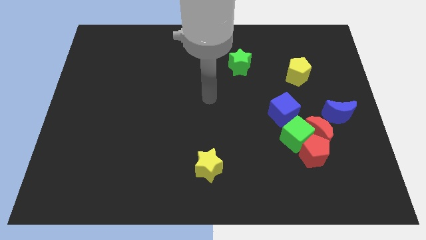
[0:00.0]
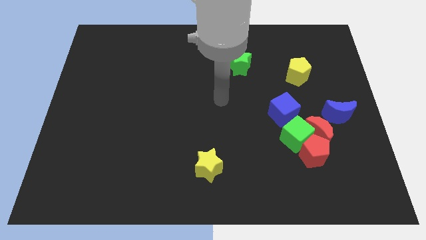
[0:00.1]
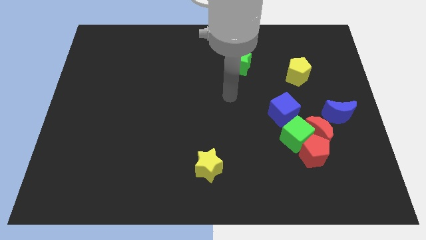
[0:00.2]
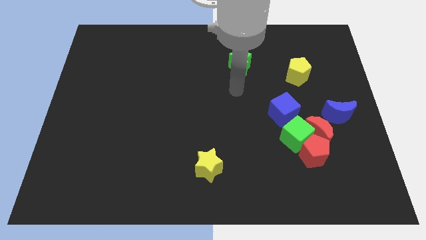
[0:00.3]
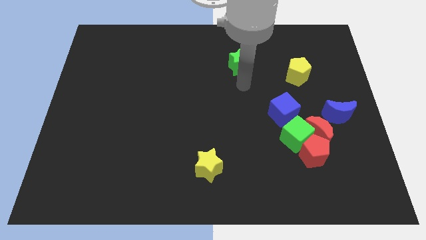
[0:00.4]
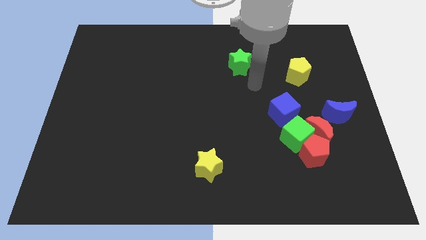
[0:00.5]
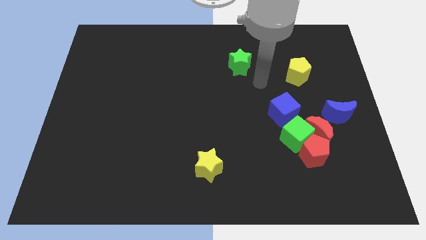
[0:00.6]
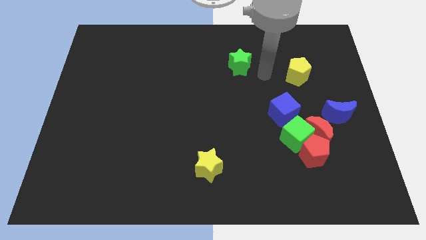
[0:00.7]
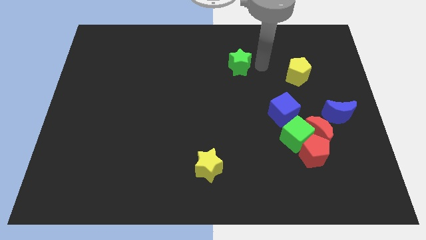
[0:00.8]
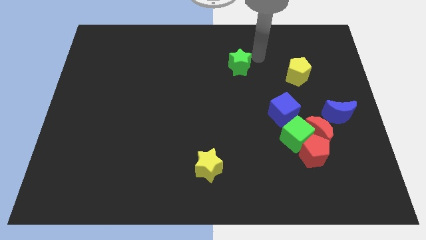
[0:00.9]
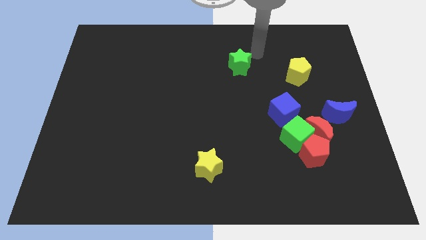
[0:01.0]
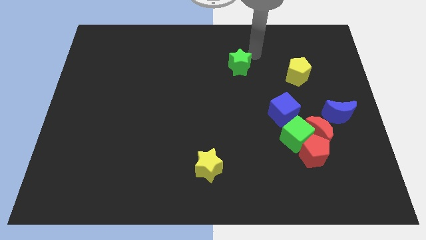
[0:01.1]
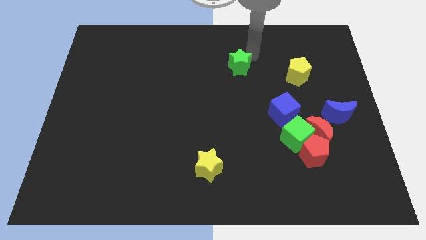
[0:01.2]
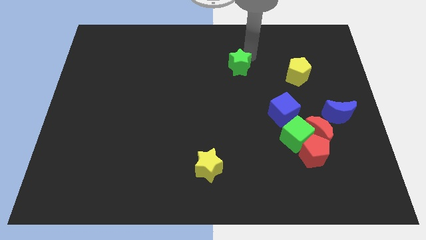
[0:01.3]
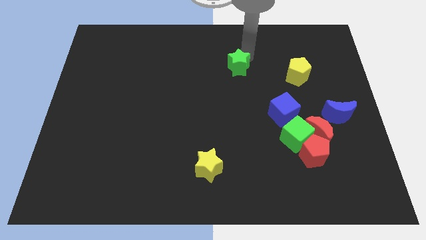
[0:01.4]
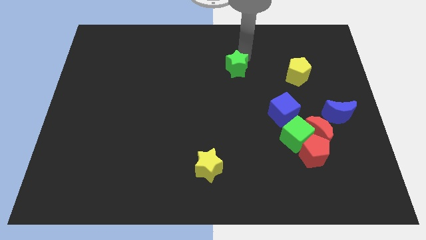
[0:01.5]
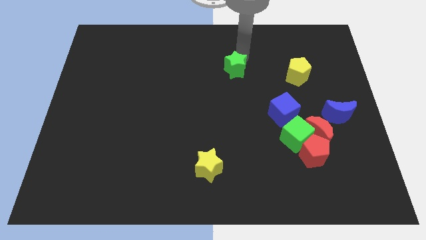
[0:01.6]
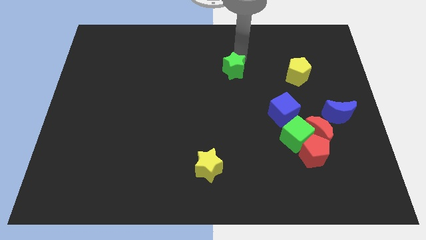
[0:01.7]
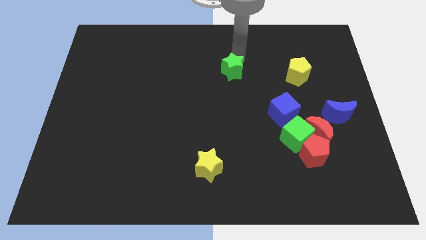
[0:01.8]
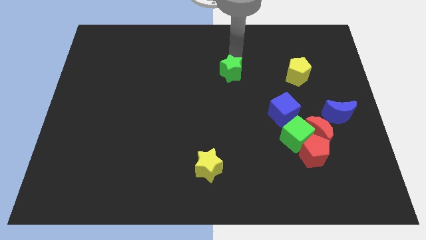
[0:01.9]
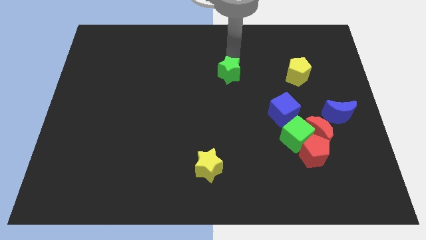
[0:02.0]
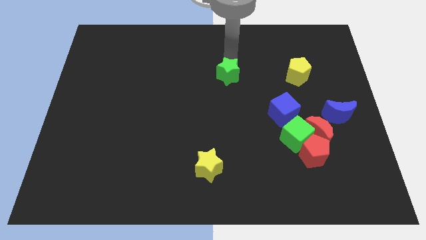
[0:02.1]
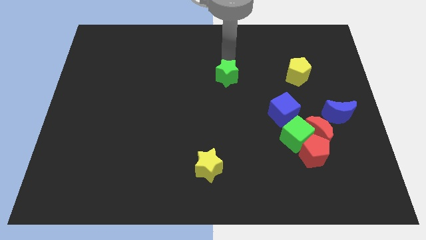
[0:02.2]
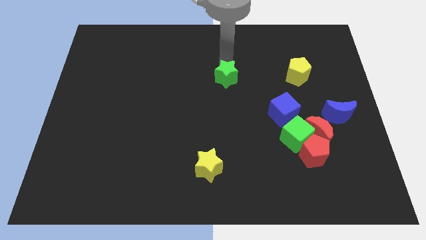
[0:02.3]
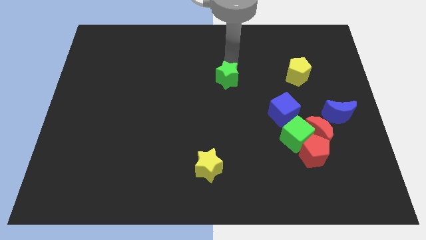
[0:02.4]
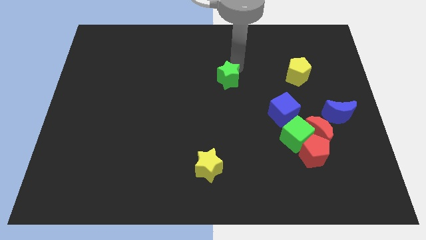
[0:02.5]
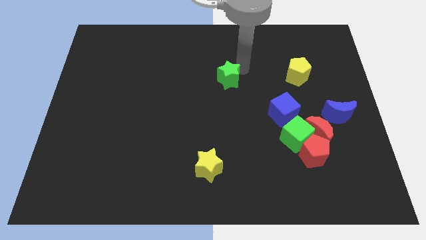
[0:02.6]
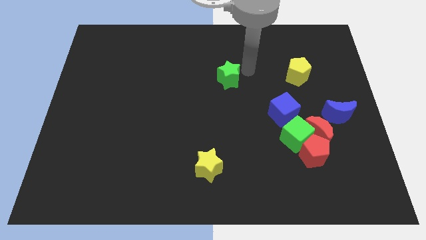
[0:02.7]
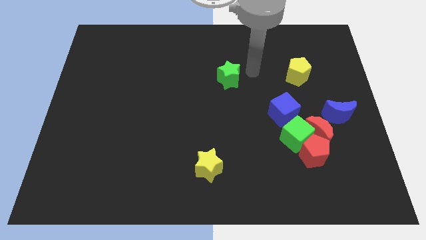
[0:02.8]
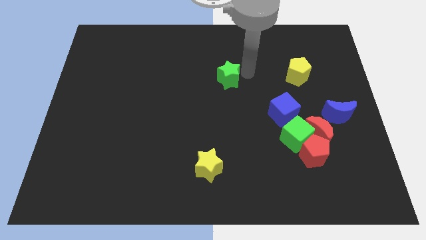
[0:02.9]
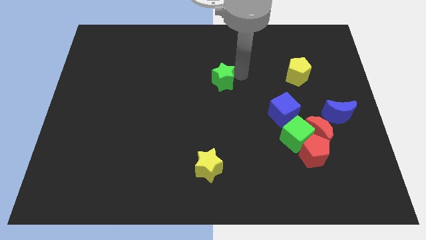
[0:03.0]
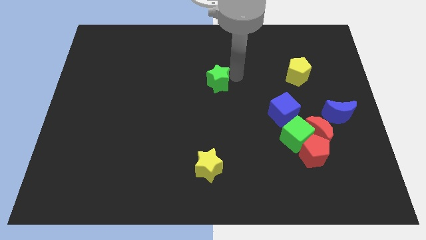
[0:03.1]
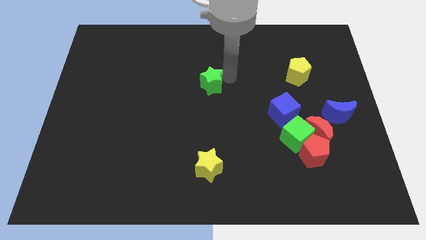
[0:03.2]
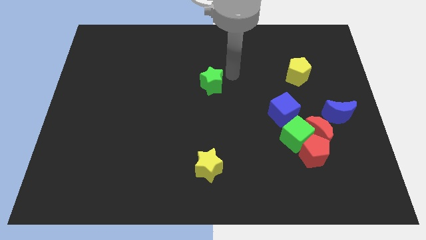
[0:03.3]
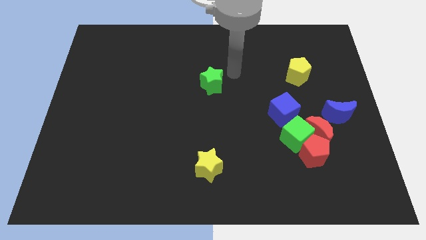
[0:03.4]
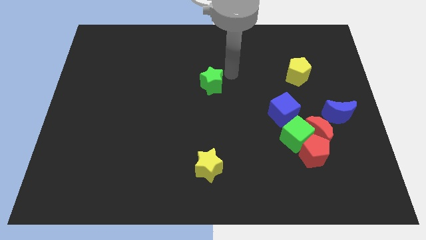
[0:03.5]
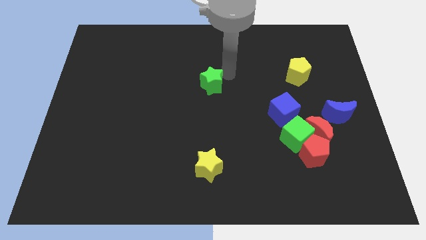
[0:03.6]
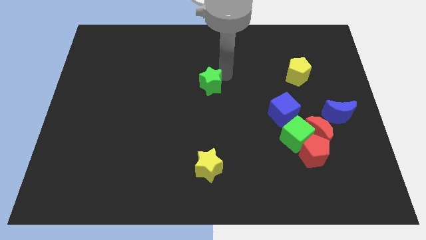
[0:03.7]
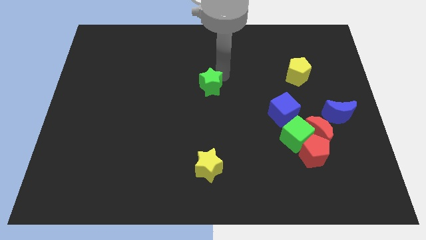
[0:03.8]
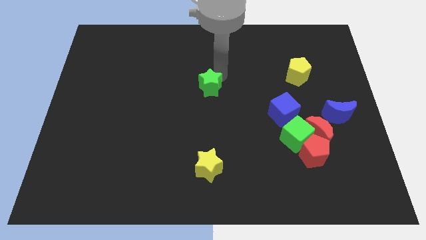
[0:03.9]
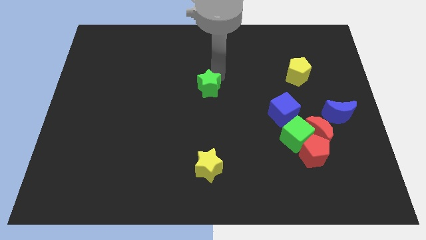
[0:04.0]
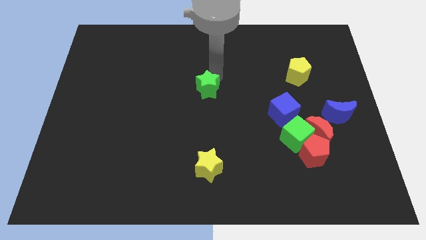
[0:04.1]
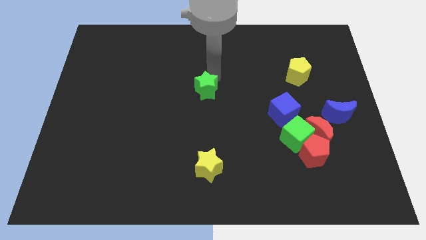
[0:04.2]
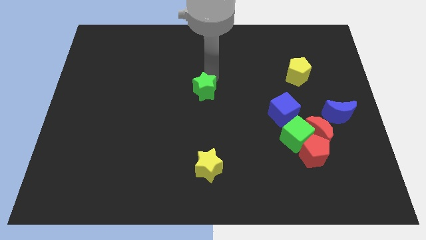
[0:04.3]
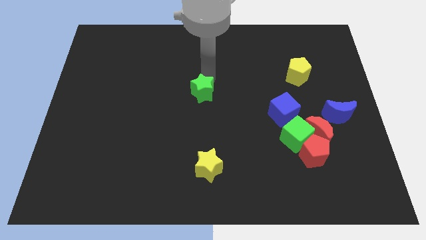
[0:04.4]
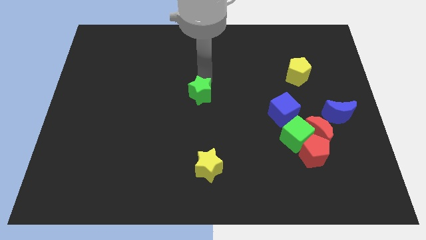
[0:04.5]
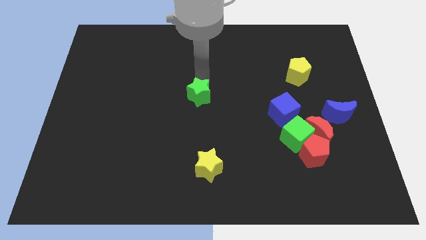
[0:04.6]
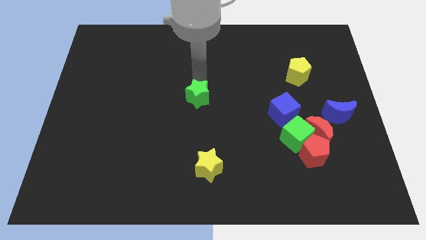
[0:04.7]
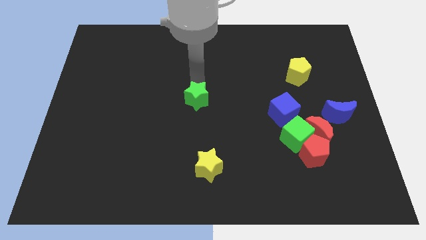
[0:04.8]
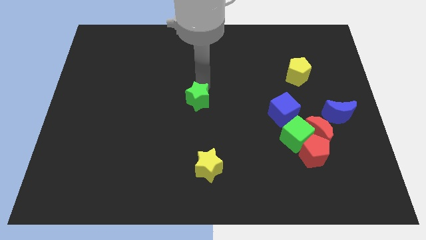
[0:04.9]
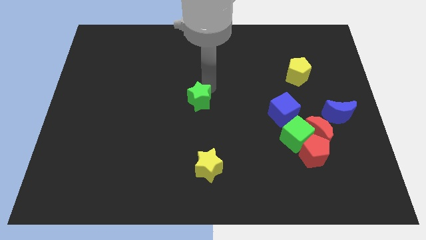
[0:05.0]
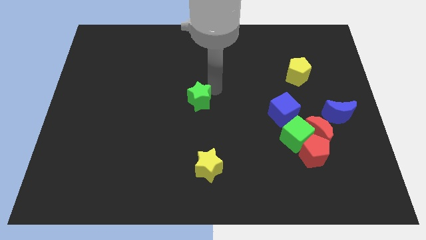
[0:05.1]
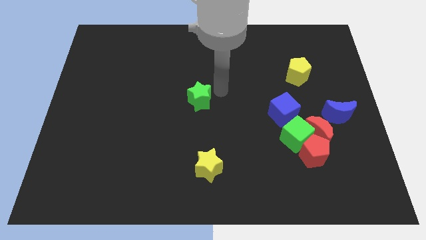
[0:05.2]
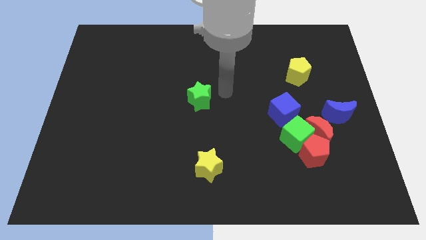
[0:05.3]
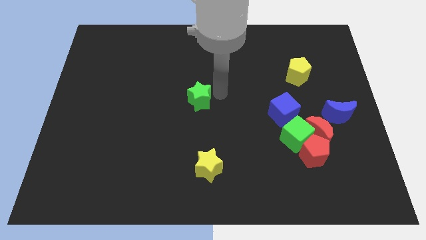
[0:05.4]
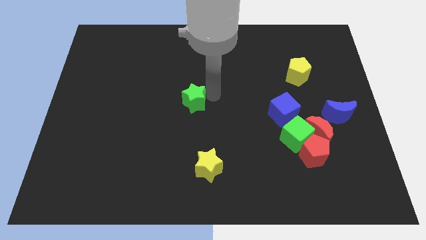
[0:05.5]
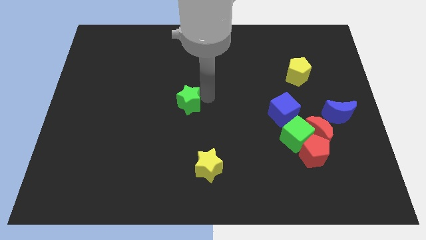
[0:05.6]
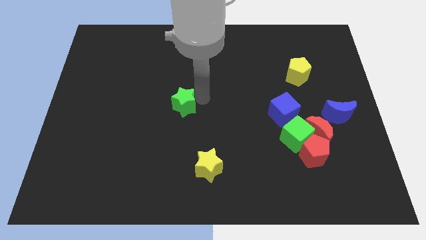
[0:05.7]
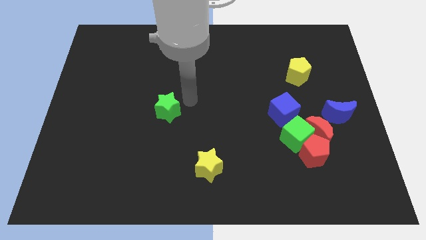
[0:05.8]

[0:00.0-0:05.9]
move the green star down and left diagonally

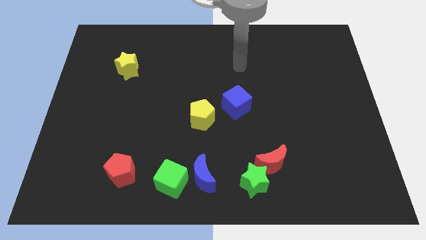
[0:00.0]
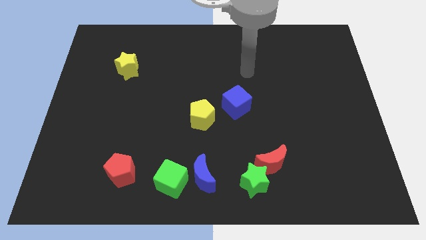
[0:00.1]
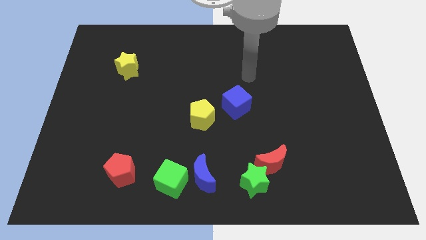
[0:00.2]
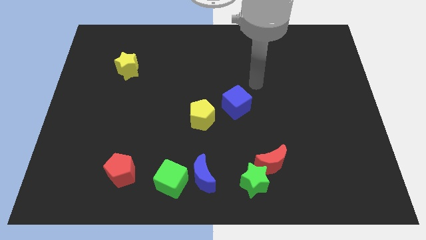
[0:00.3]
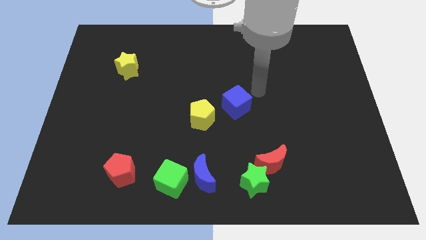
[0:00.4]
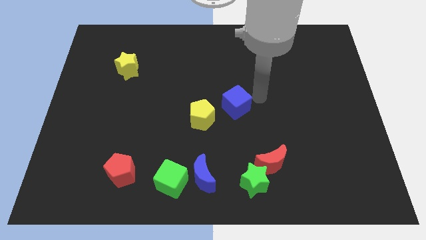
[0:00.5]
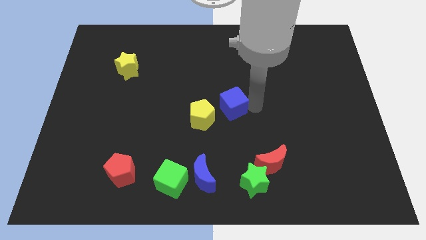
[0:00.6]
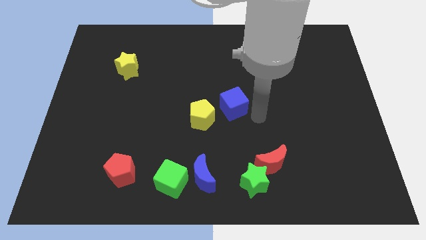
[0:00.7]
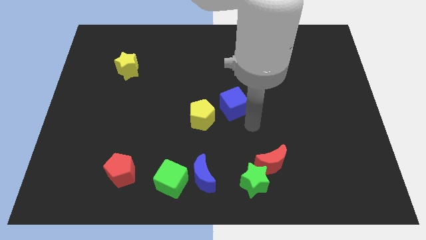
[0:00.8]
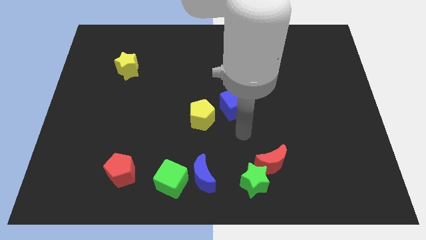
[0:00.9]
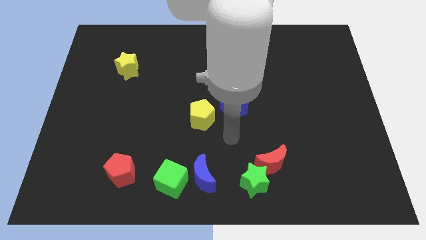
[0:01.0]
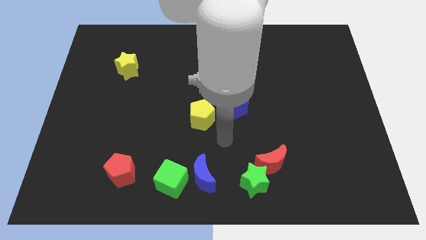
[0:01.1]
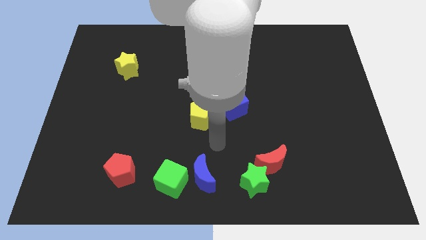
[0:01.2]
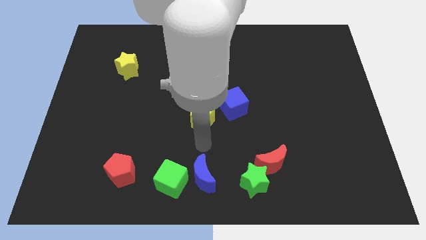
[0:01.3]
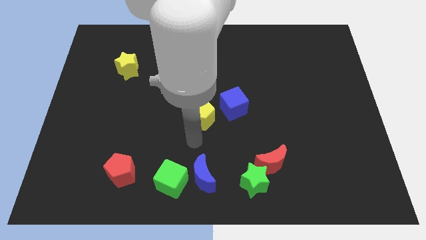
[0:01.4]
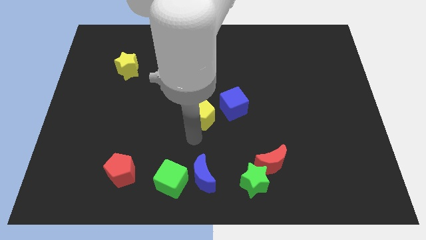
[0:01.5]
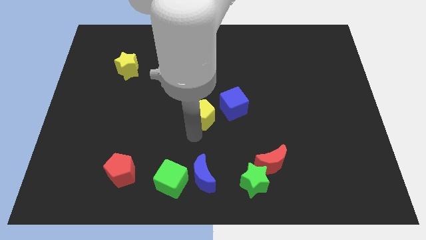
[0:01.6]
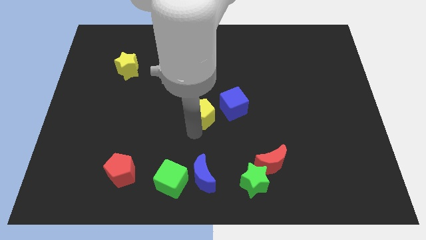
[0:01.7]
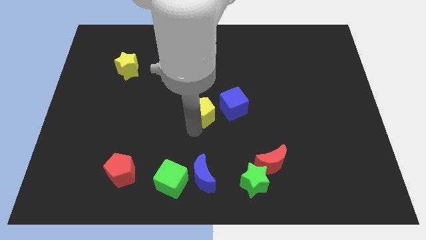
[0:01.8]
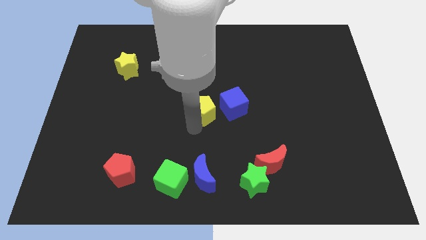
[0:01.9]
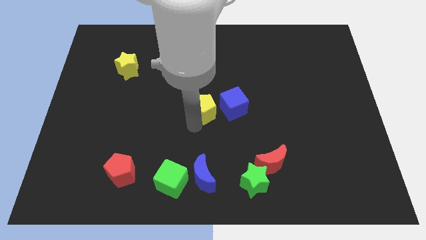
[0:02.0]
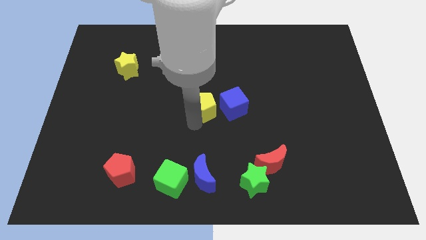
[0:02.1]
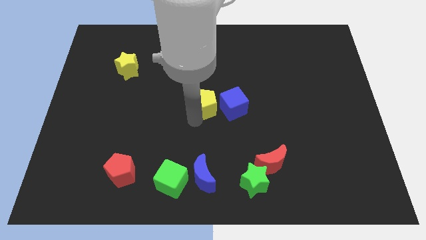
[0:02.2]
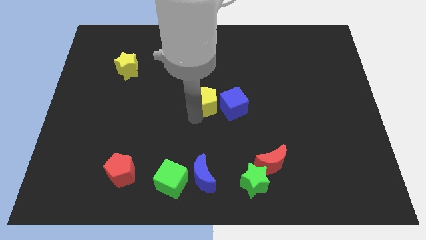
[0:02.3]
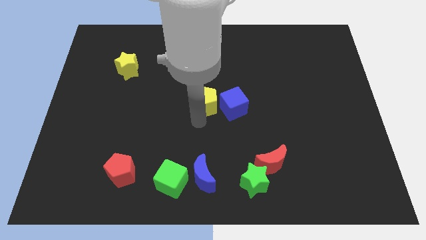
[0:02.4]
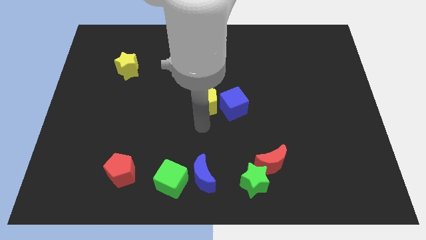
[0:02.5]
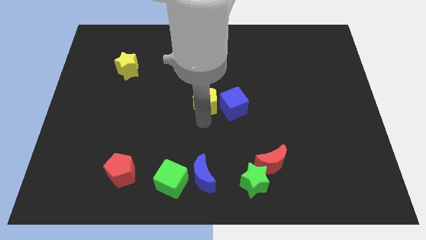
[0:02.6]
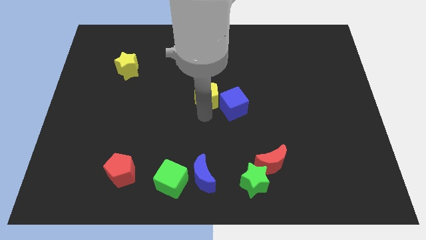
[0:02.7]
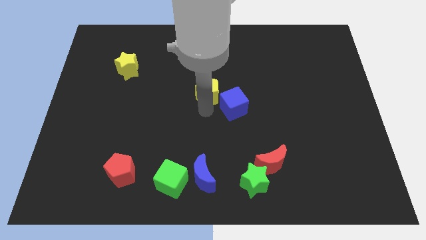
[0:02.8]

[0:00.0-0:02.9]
push the yellow pentagon somewhat upwards
